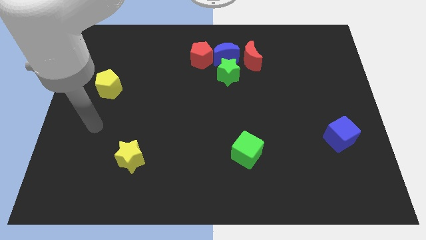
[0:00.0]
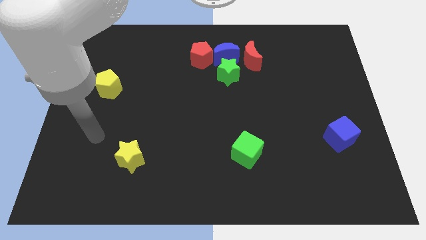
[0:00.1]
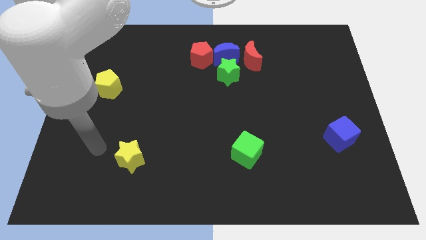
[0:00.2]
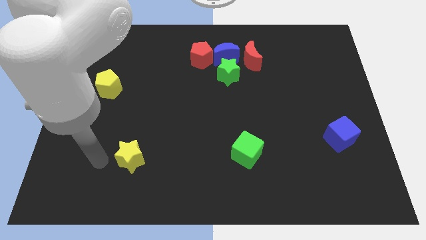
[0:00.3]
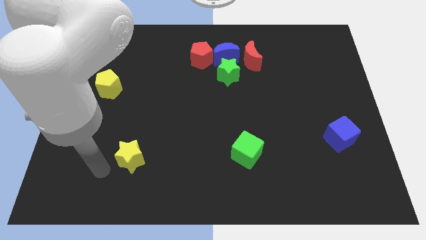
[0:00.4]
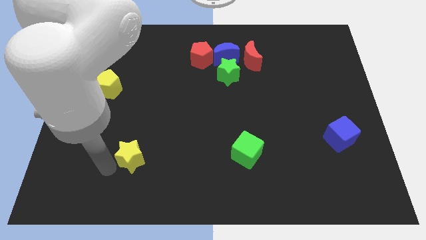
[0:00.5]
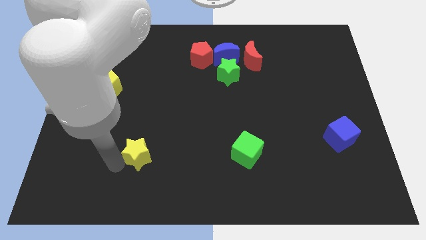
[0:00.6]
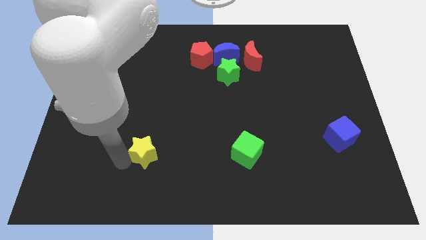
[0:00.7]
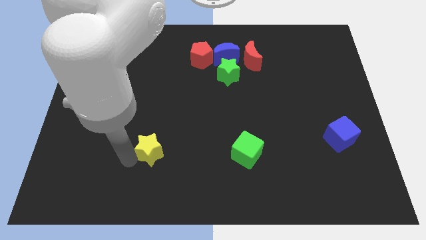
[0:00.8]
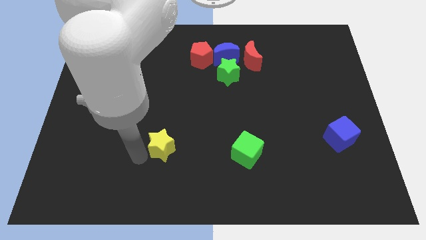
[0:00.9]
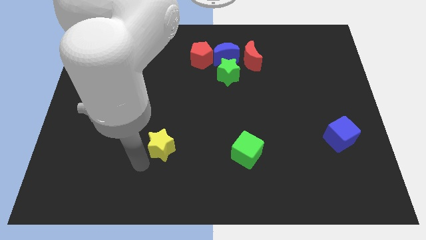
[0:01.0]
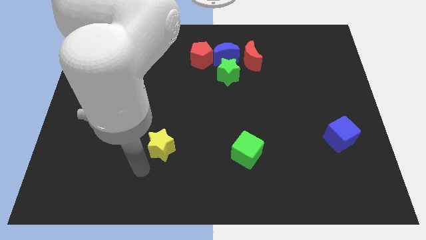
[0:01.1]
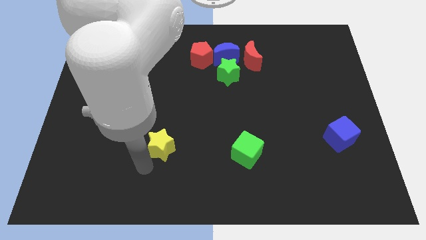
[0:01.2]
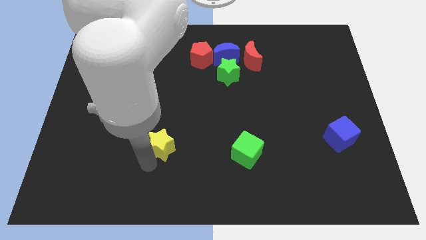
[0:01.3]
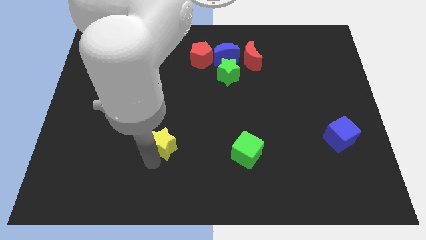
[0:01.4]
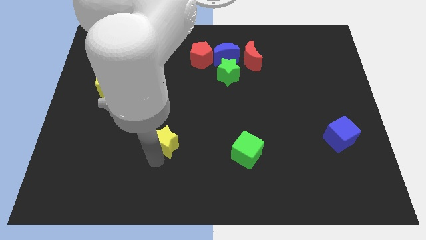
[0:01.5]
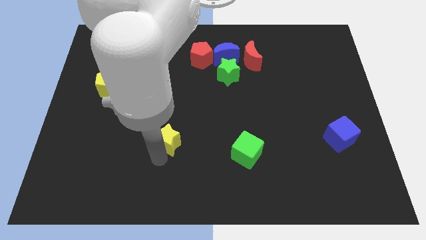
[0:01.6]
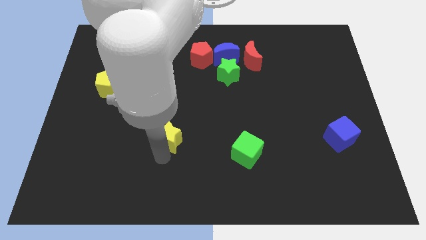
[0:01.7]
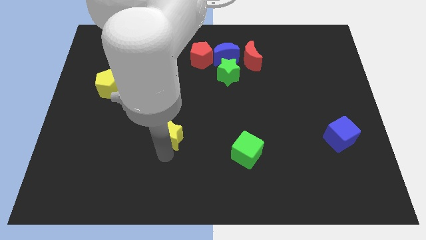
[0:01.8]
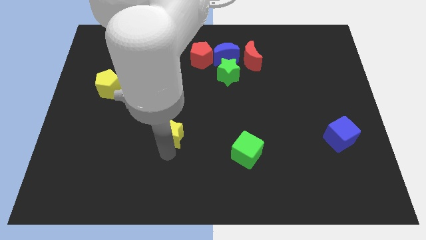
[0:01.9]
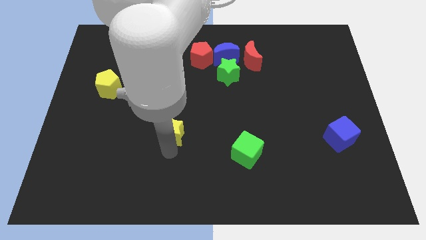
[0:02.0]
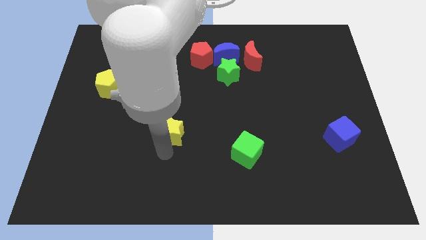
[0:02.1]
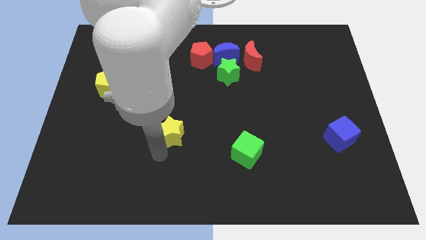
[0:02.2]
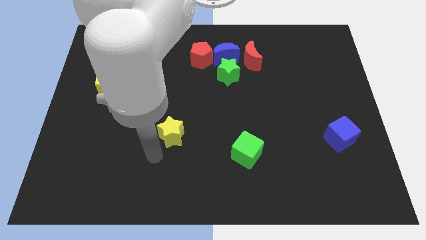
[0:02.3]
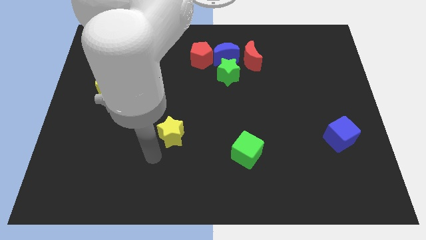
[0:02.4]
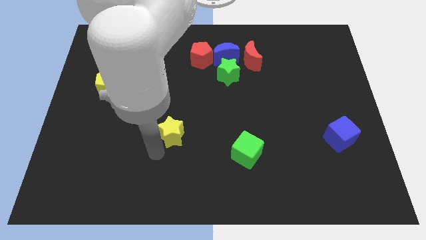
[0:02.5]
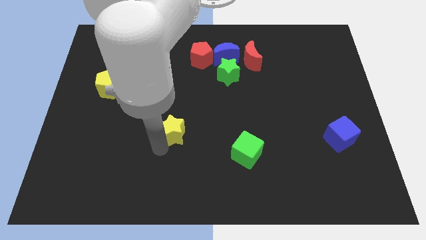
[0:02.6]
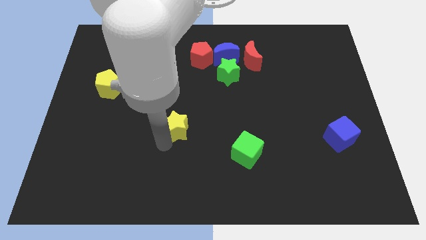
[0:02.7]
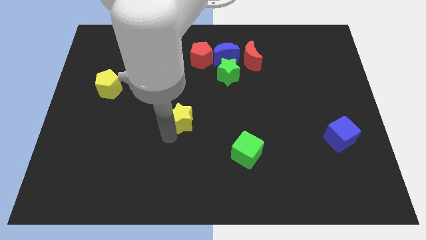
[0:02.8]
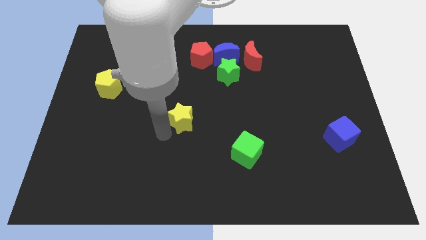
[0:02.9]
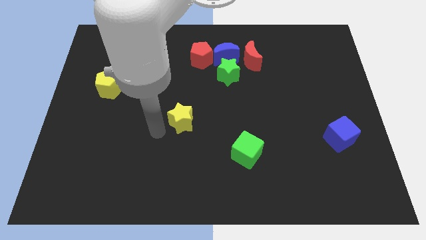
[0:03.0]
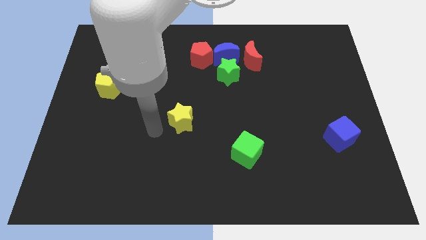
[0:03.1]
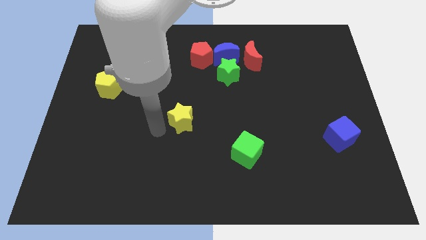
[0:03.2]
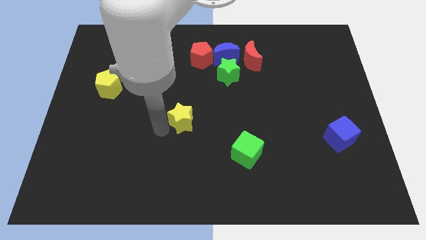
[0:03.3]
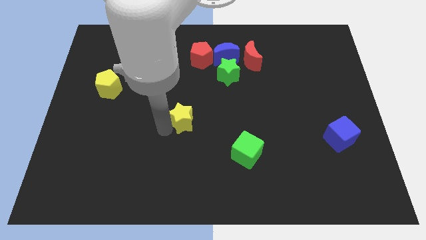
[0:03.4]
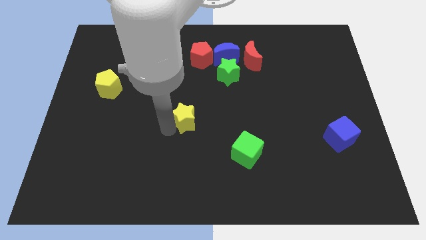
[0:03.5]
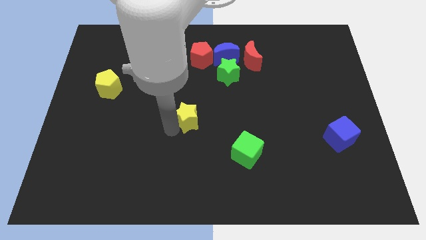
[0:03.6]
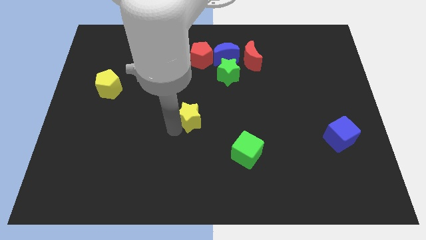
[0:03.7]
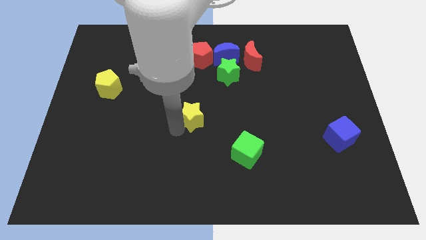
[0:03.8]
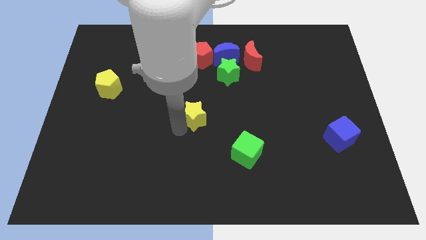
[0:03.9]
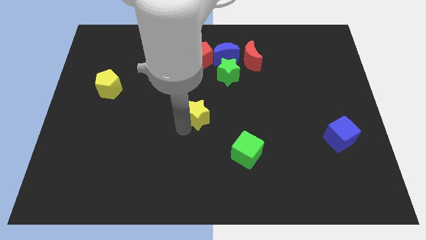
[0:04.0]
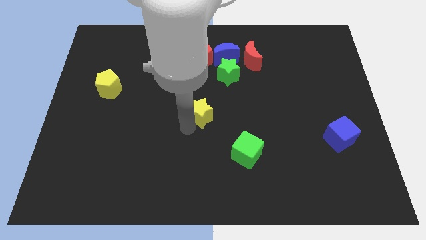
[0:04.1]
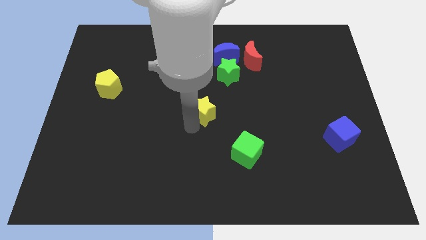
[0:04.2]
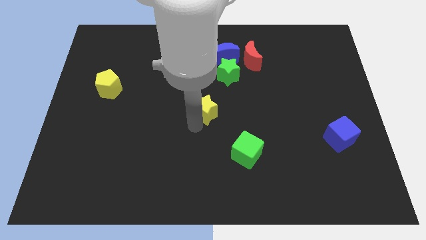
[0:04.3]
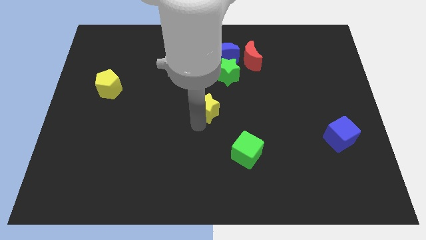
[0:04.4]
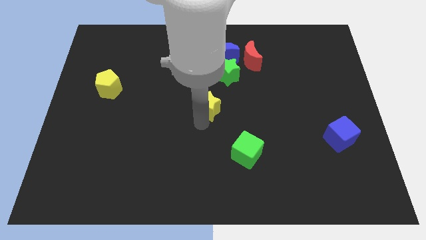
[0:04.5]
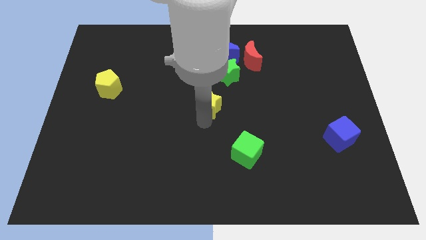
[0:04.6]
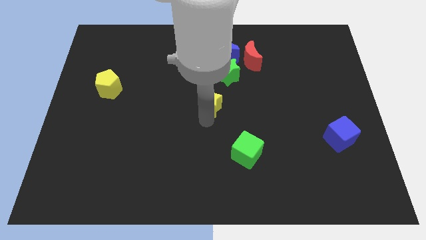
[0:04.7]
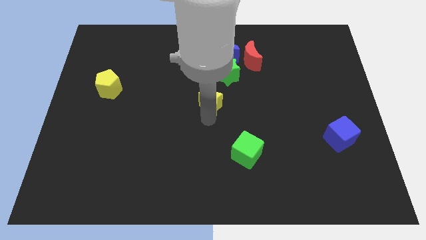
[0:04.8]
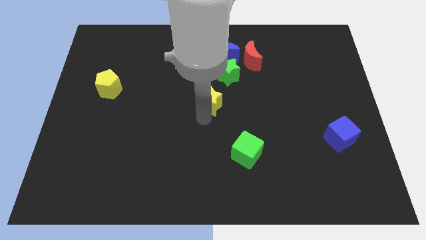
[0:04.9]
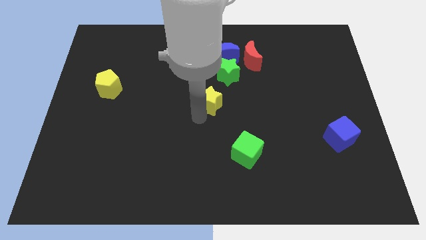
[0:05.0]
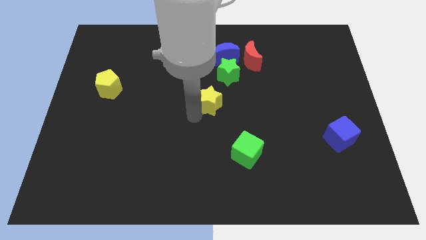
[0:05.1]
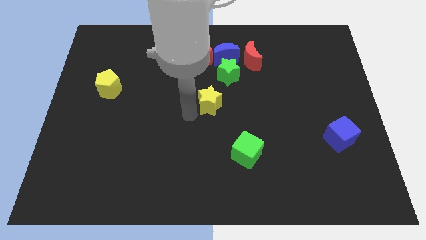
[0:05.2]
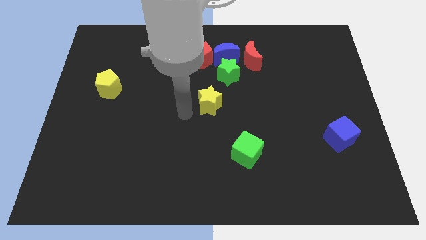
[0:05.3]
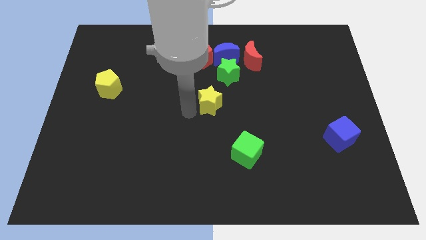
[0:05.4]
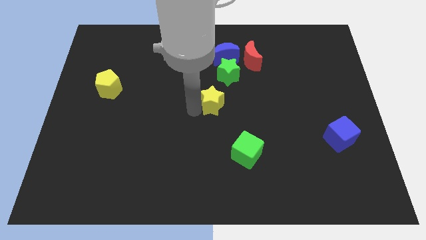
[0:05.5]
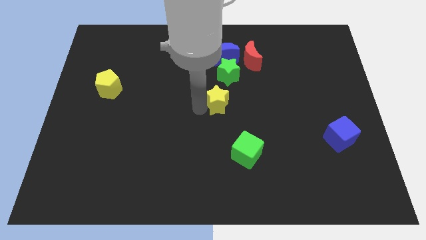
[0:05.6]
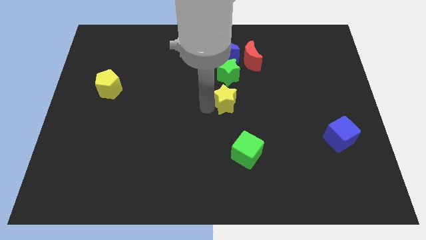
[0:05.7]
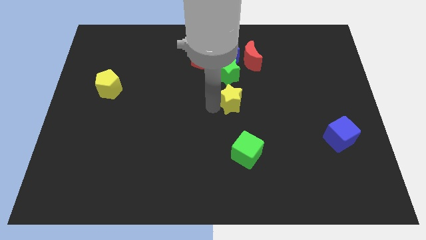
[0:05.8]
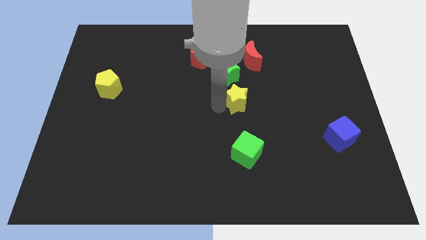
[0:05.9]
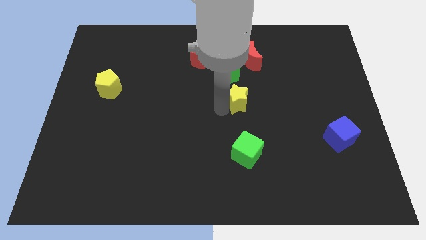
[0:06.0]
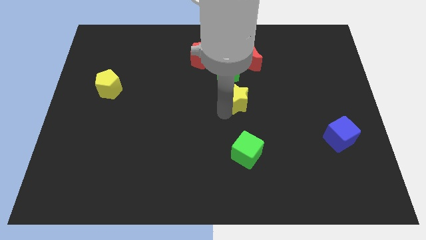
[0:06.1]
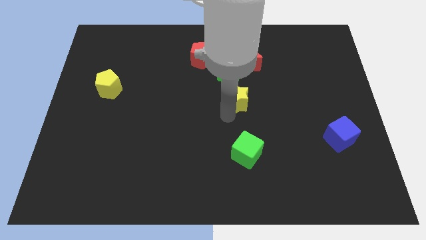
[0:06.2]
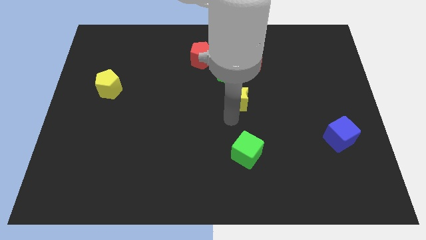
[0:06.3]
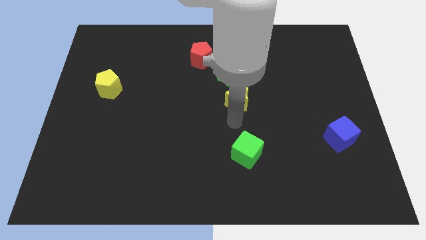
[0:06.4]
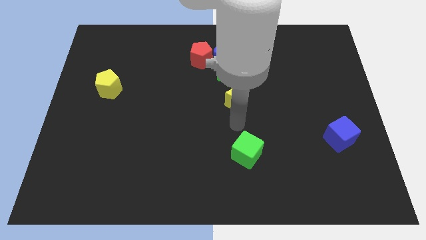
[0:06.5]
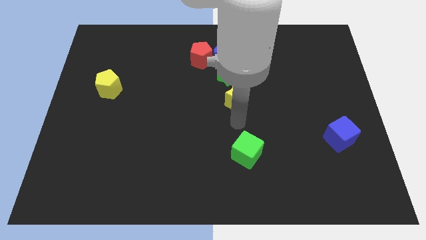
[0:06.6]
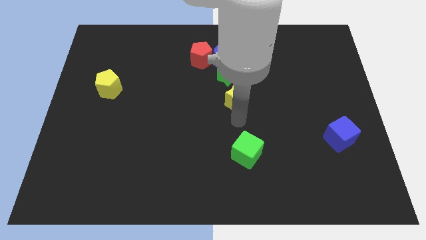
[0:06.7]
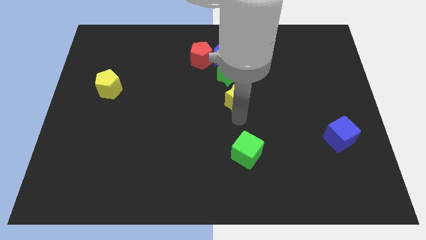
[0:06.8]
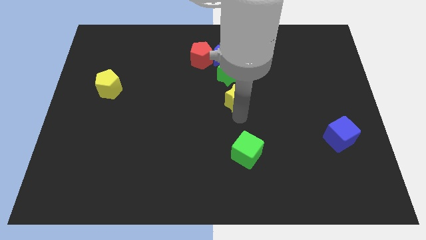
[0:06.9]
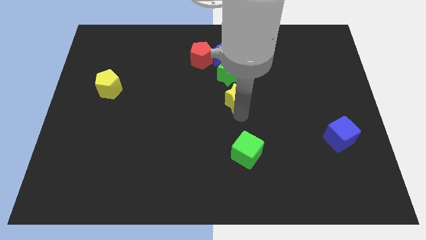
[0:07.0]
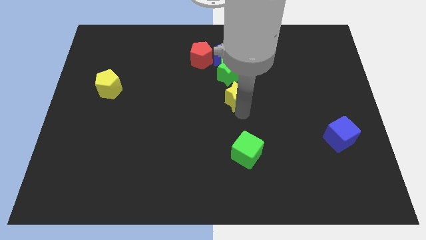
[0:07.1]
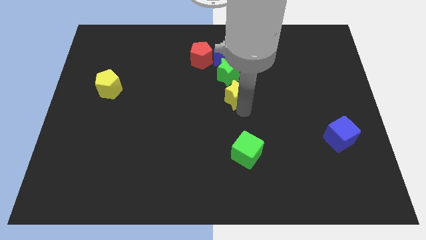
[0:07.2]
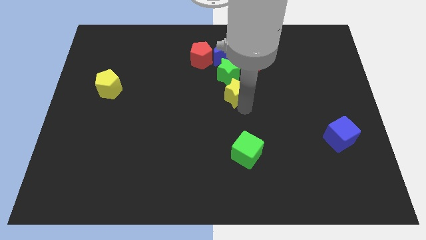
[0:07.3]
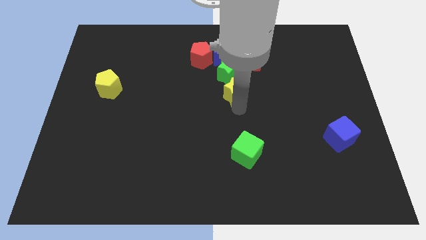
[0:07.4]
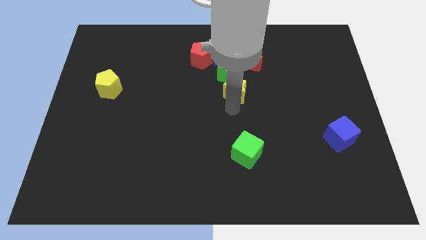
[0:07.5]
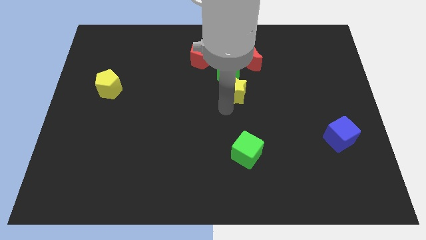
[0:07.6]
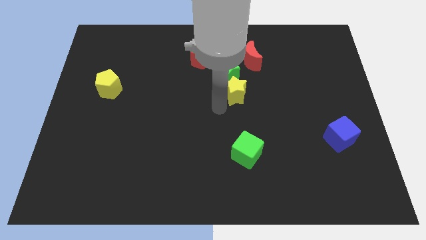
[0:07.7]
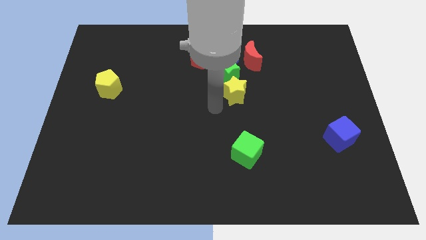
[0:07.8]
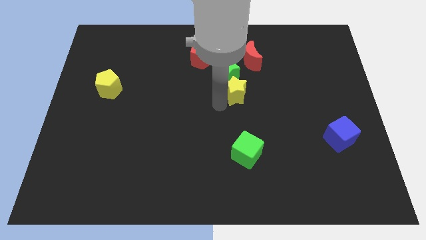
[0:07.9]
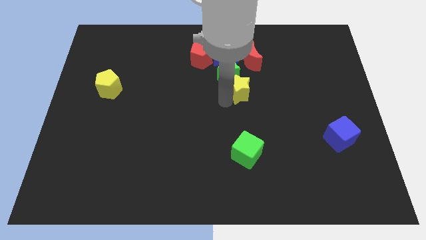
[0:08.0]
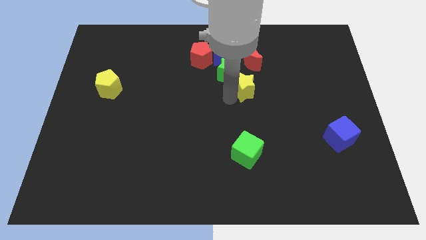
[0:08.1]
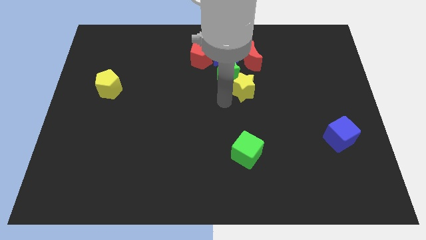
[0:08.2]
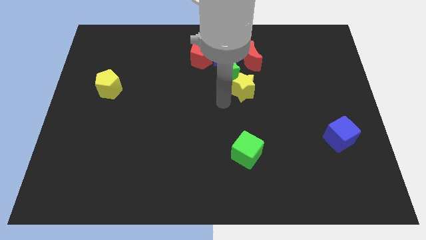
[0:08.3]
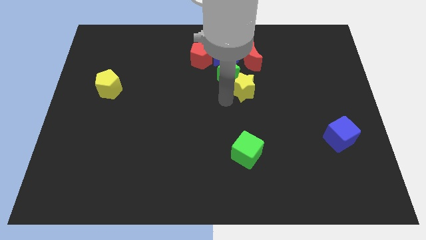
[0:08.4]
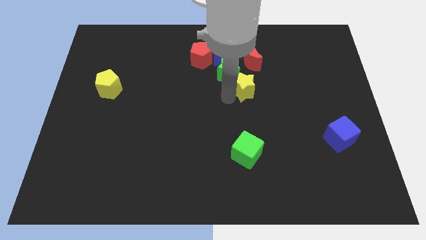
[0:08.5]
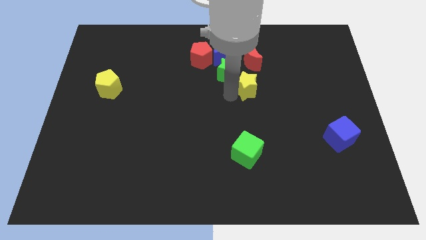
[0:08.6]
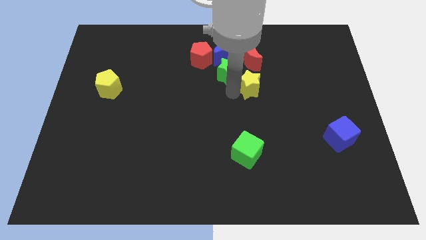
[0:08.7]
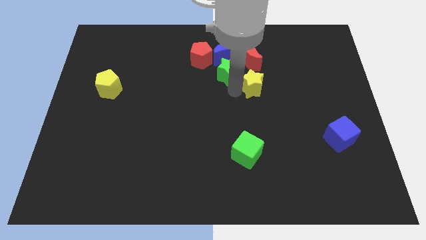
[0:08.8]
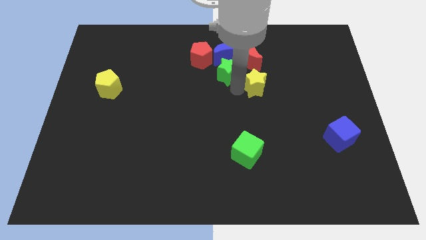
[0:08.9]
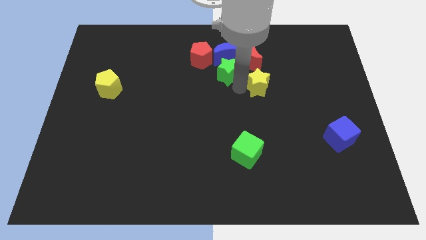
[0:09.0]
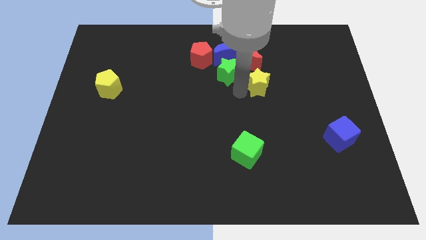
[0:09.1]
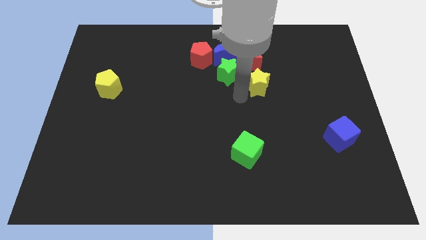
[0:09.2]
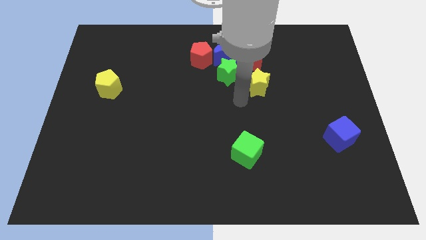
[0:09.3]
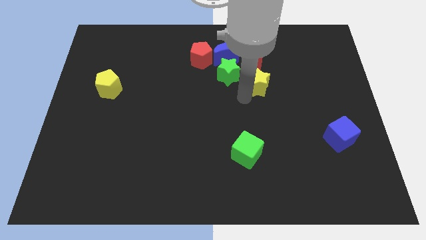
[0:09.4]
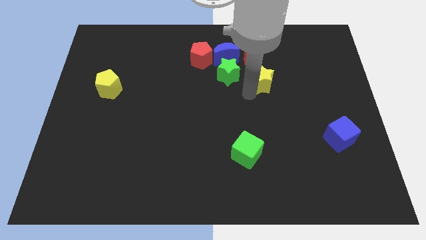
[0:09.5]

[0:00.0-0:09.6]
push the yellow star to the bottom right of the red moon
